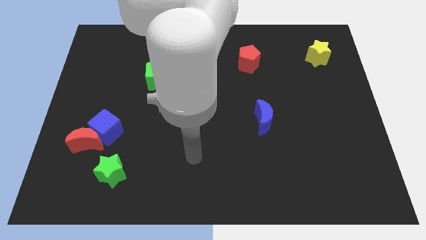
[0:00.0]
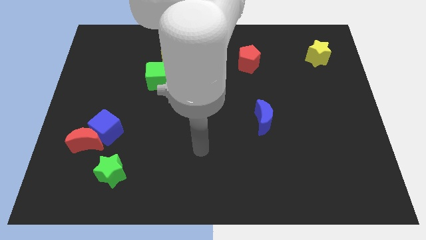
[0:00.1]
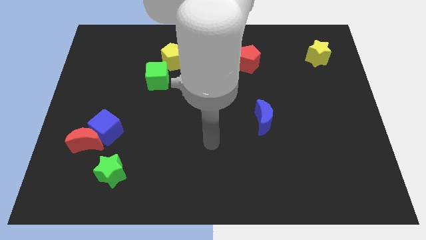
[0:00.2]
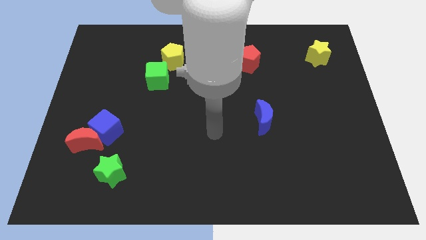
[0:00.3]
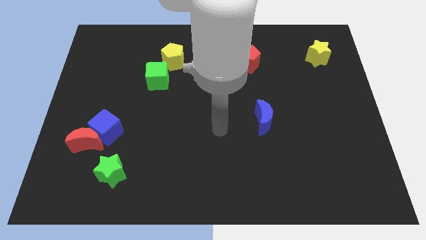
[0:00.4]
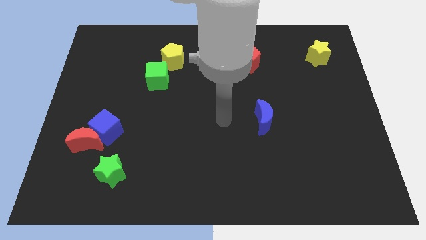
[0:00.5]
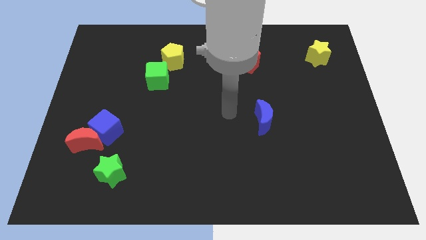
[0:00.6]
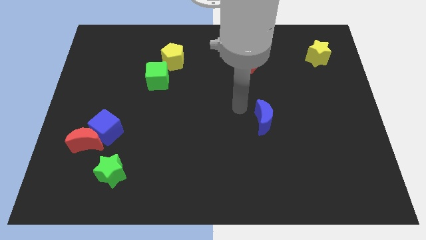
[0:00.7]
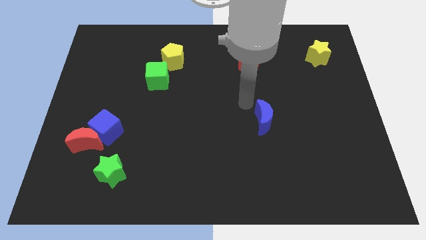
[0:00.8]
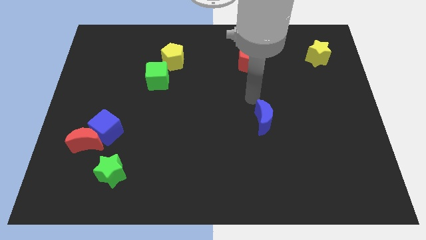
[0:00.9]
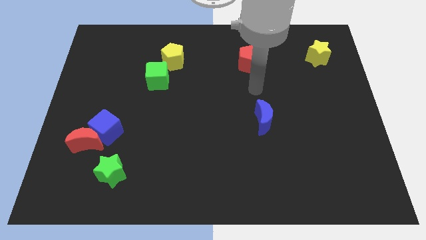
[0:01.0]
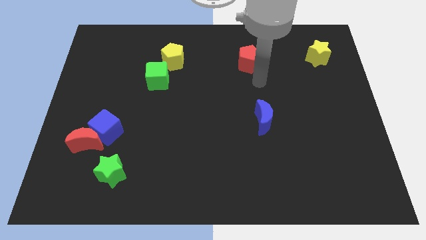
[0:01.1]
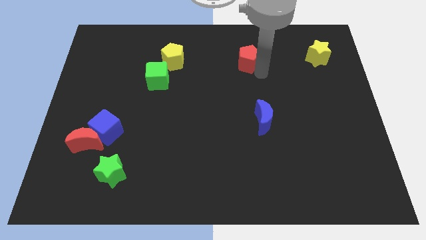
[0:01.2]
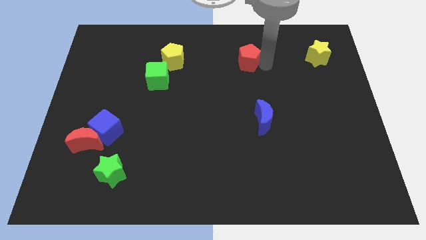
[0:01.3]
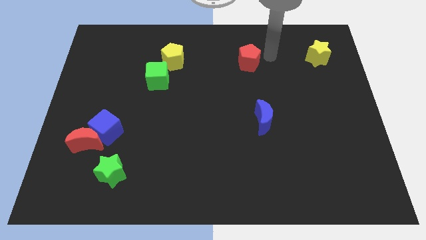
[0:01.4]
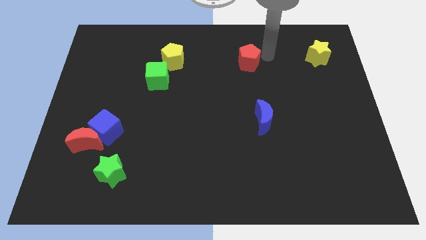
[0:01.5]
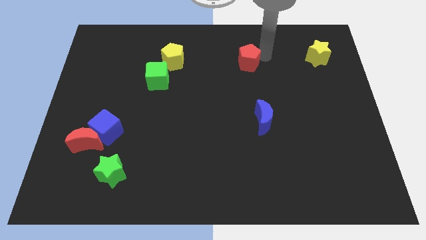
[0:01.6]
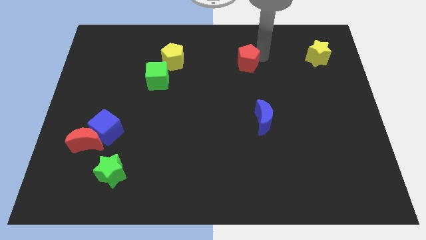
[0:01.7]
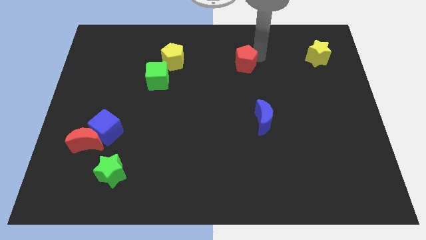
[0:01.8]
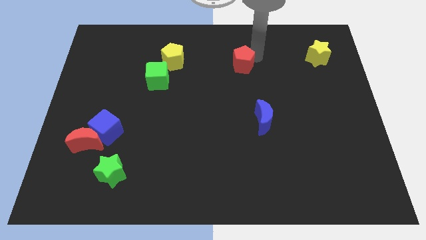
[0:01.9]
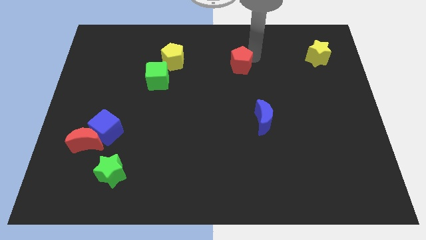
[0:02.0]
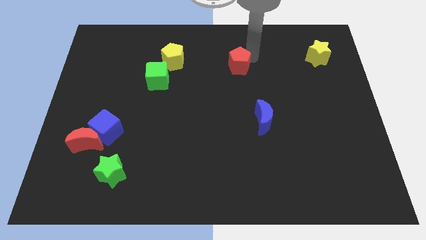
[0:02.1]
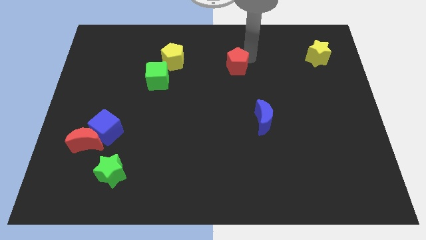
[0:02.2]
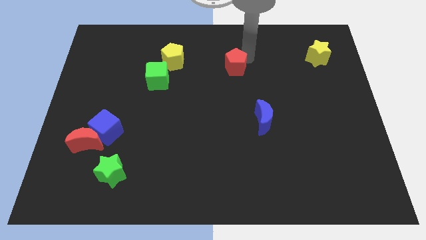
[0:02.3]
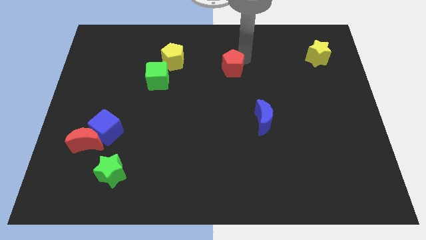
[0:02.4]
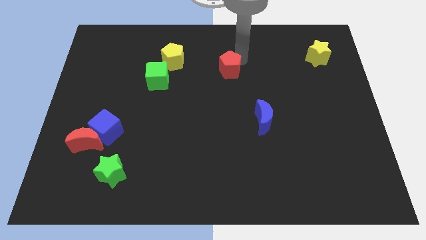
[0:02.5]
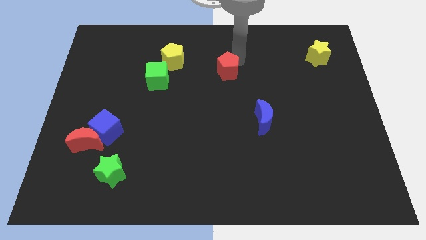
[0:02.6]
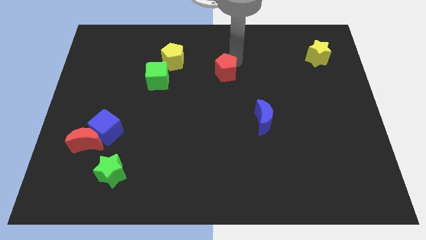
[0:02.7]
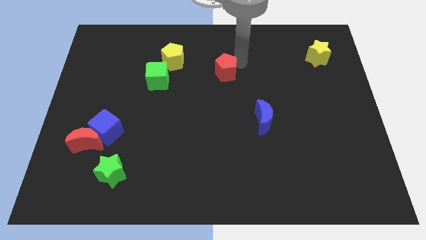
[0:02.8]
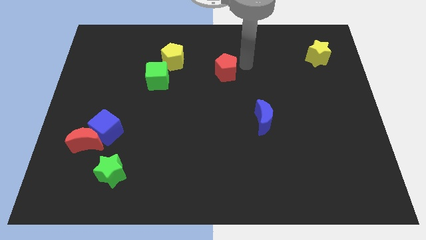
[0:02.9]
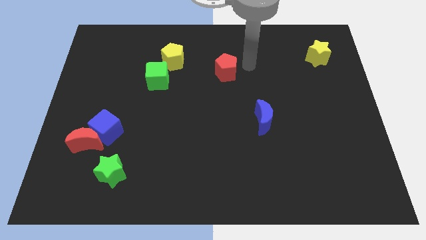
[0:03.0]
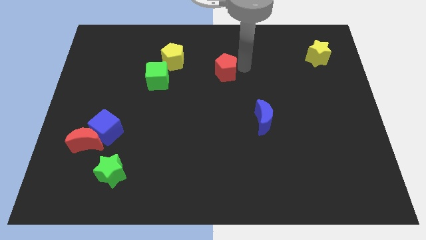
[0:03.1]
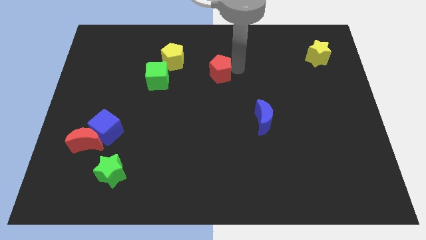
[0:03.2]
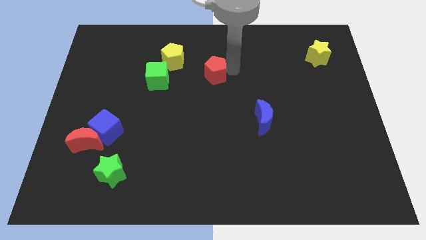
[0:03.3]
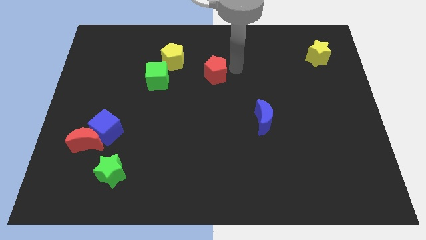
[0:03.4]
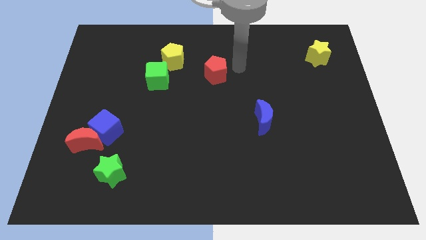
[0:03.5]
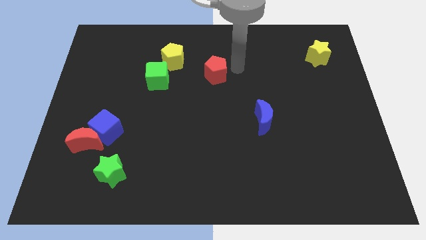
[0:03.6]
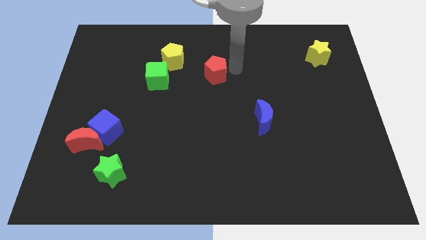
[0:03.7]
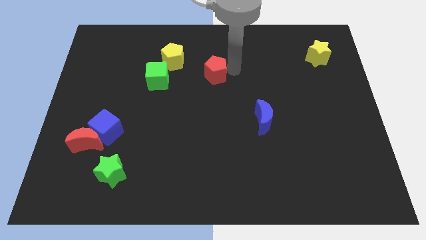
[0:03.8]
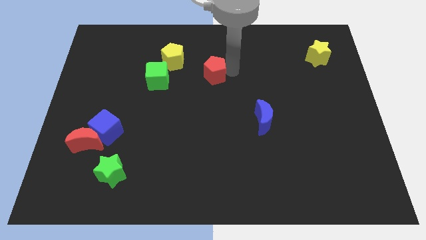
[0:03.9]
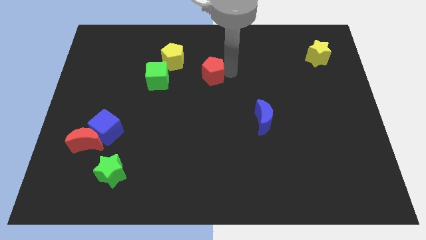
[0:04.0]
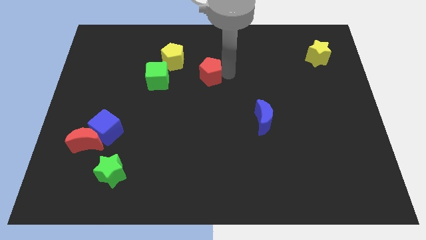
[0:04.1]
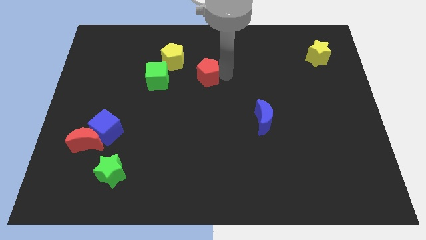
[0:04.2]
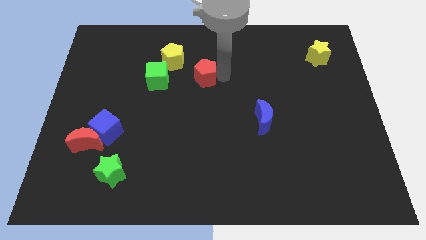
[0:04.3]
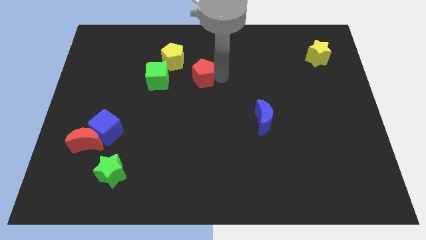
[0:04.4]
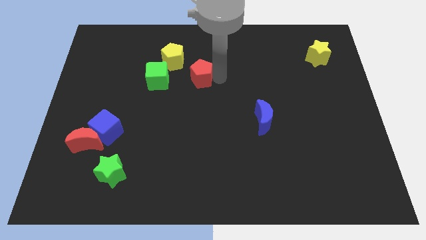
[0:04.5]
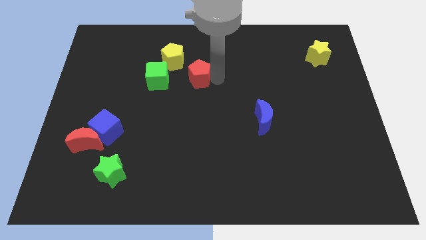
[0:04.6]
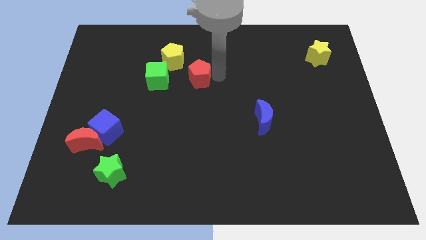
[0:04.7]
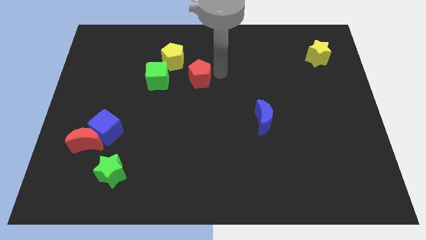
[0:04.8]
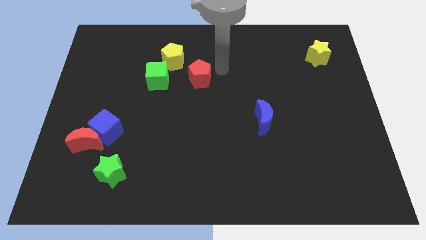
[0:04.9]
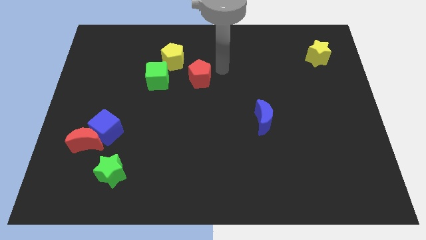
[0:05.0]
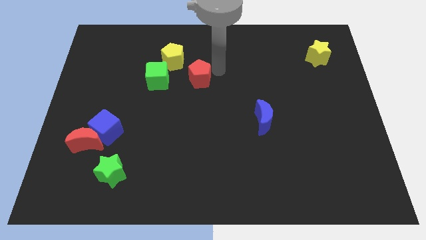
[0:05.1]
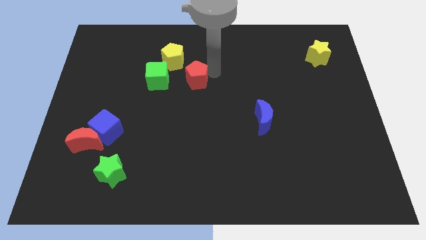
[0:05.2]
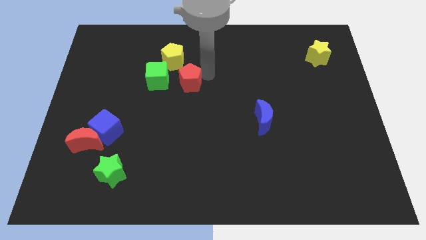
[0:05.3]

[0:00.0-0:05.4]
put the red pentagon to the bottom side of the yellow pentagon

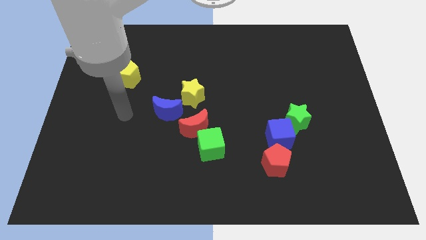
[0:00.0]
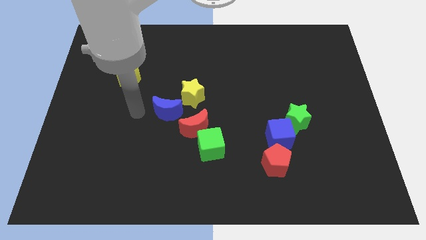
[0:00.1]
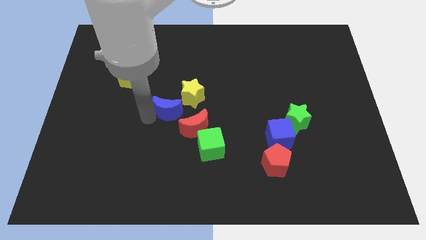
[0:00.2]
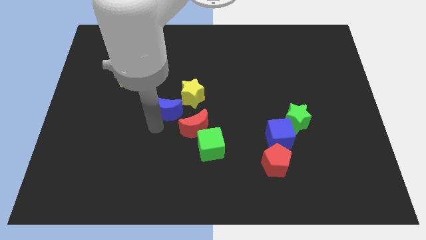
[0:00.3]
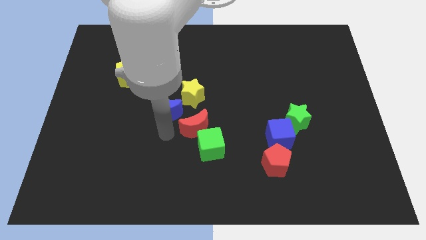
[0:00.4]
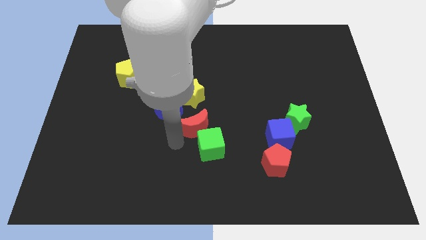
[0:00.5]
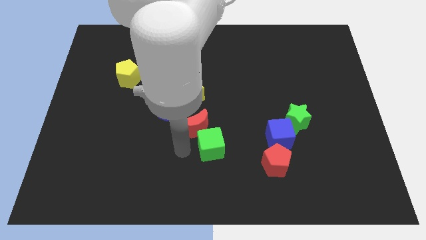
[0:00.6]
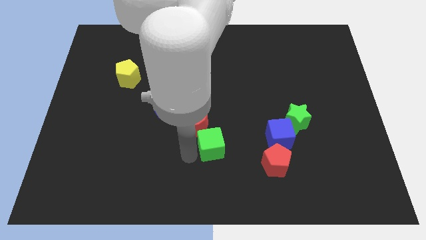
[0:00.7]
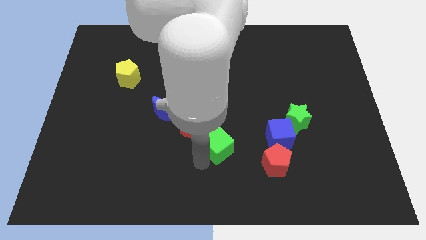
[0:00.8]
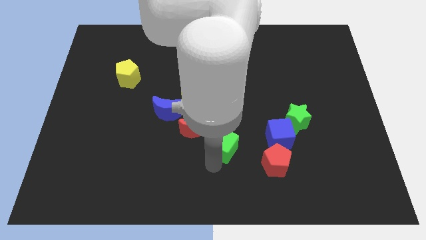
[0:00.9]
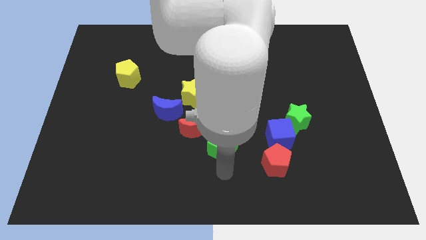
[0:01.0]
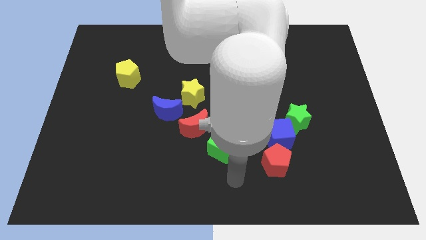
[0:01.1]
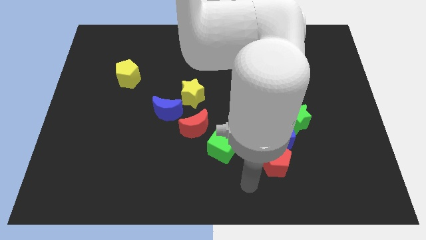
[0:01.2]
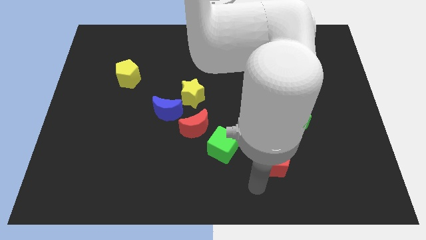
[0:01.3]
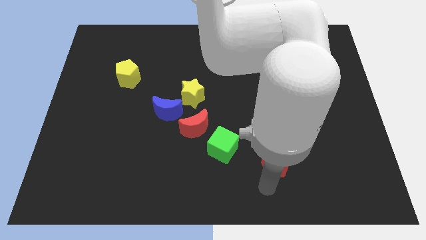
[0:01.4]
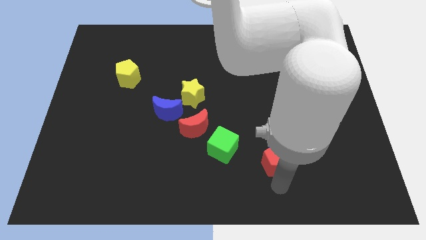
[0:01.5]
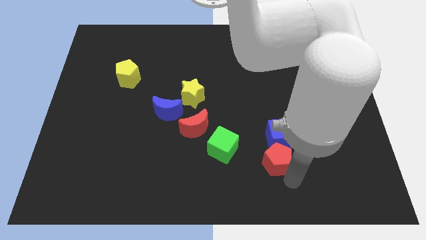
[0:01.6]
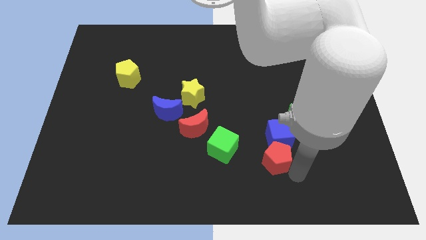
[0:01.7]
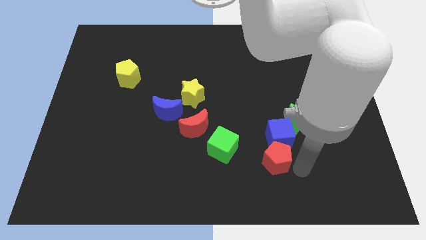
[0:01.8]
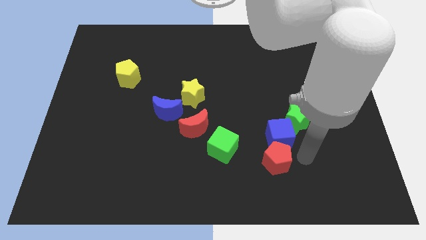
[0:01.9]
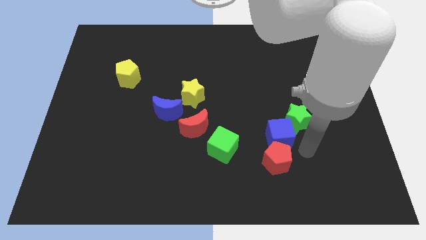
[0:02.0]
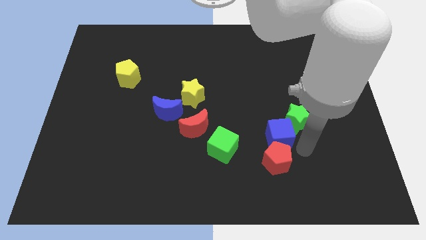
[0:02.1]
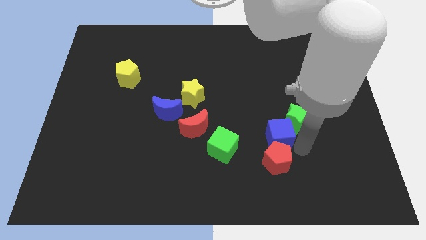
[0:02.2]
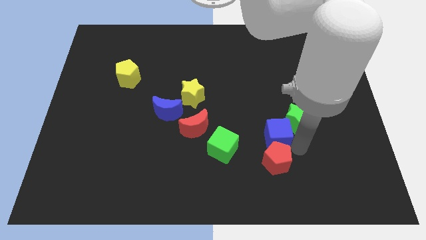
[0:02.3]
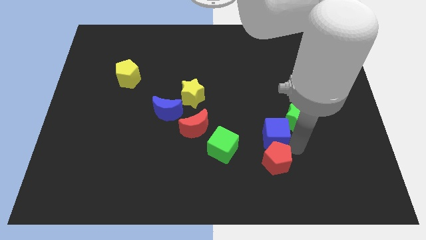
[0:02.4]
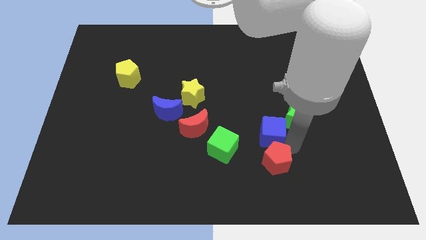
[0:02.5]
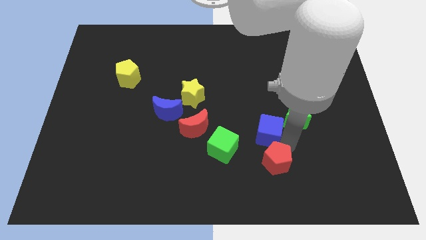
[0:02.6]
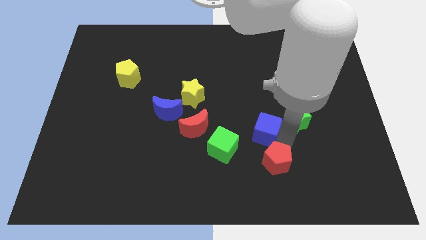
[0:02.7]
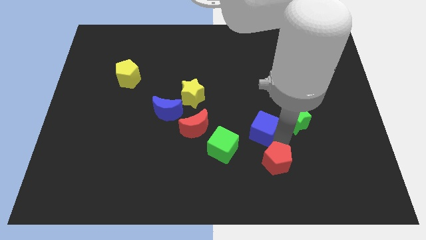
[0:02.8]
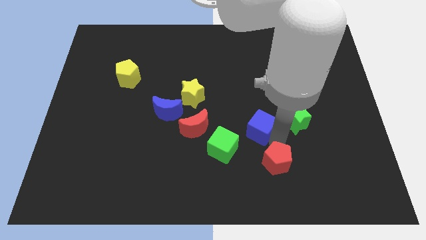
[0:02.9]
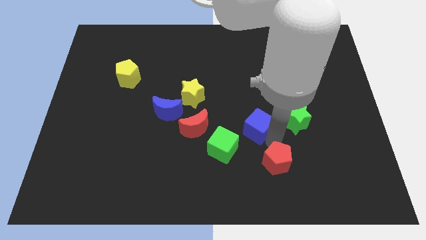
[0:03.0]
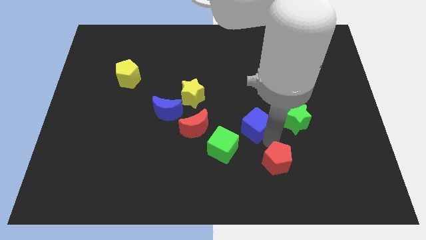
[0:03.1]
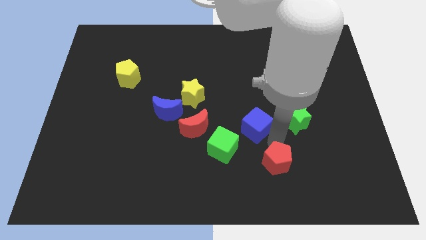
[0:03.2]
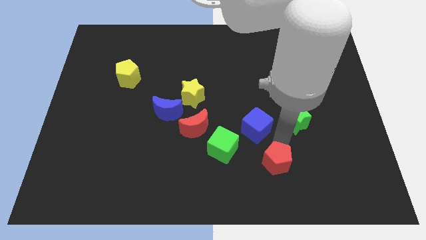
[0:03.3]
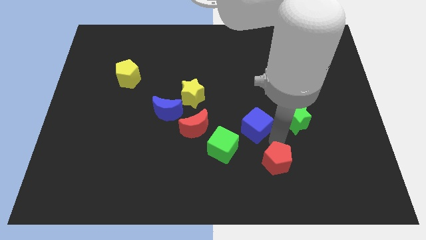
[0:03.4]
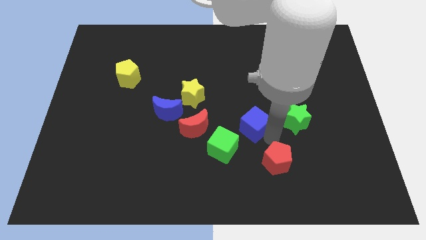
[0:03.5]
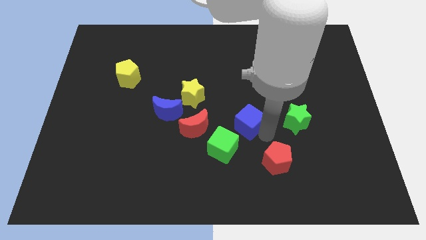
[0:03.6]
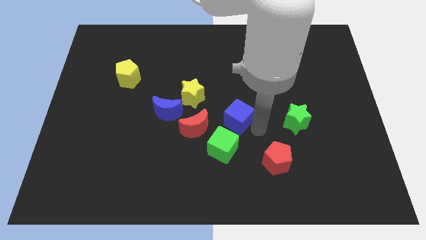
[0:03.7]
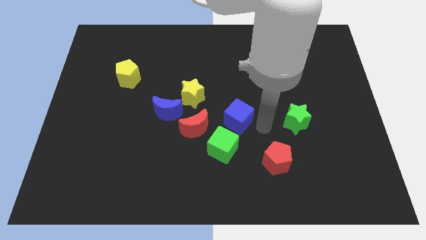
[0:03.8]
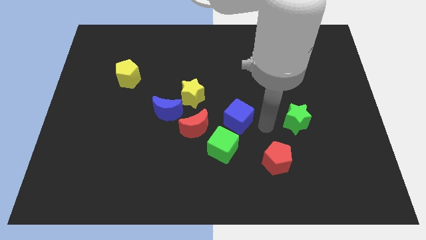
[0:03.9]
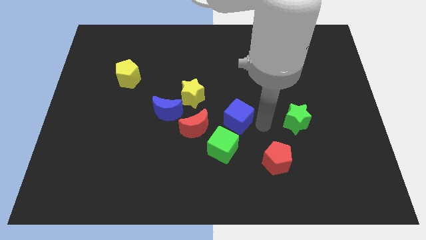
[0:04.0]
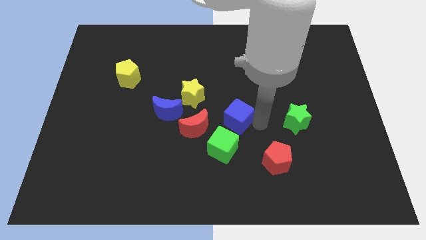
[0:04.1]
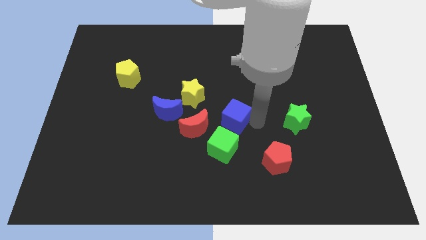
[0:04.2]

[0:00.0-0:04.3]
put the blue cube diagonally down and to the right of the yellow star
